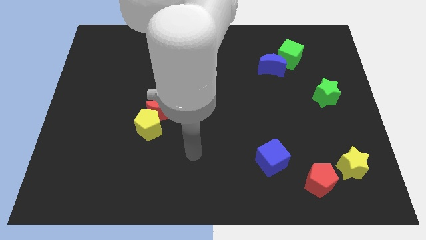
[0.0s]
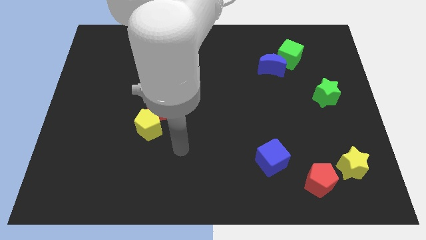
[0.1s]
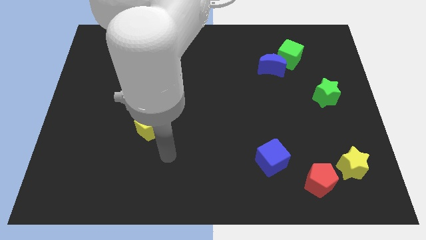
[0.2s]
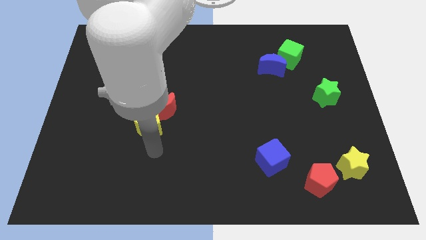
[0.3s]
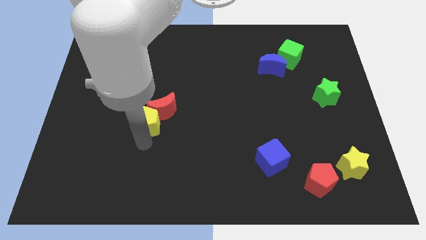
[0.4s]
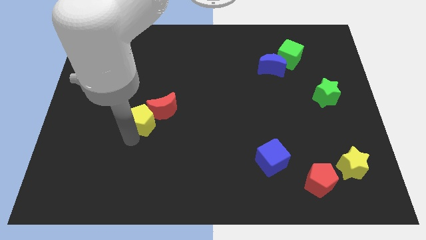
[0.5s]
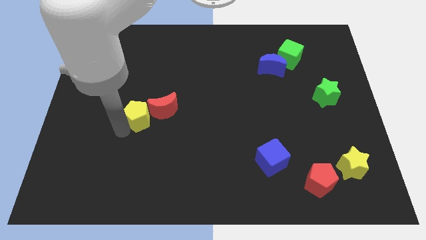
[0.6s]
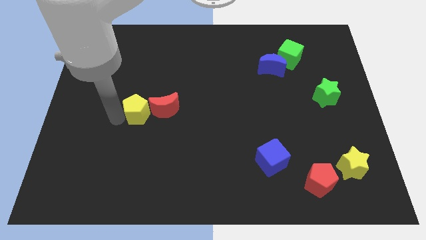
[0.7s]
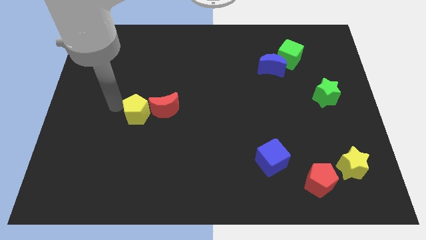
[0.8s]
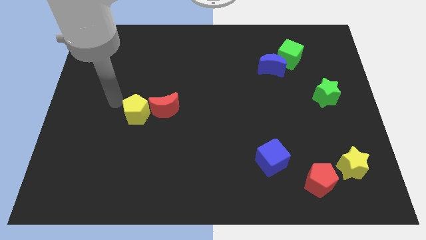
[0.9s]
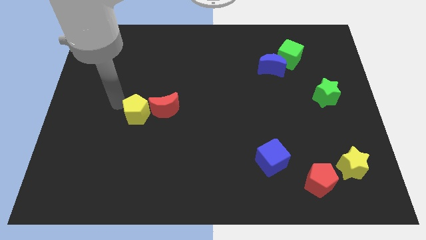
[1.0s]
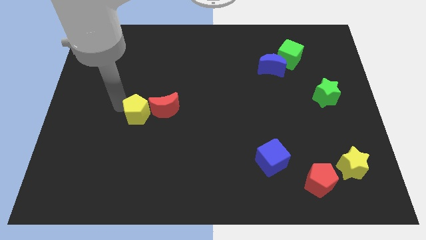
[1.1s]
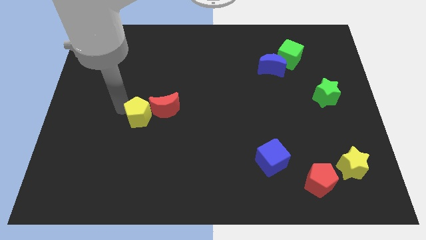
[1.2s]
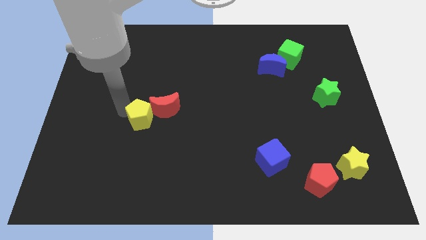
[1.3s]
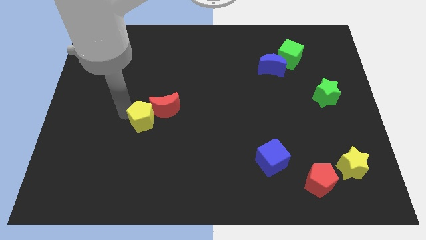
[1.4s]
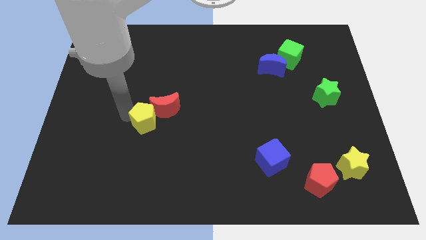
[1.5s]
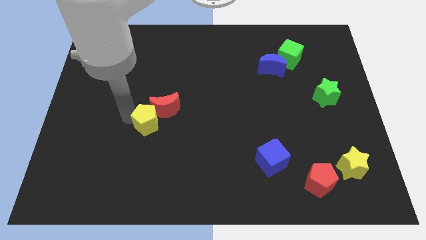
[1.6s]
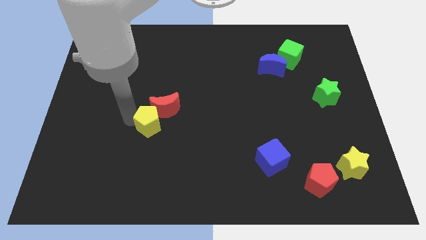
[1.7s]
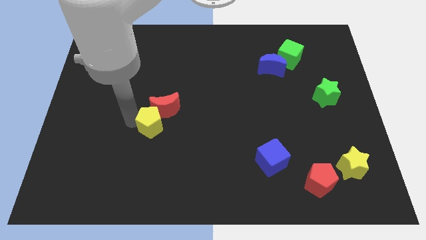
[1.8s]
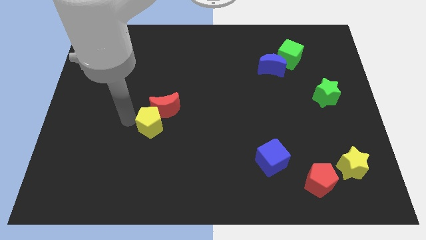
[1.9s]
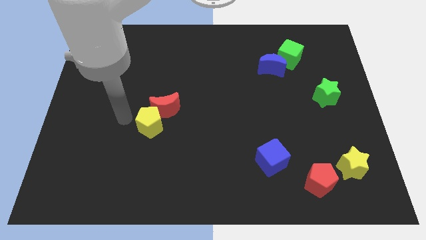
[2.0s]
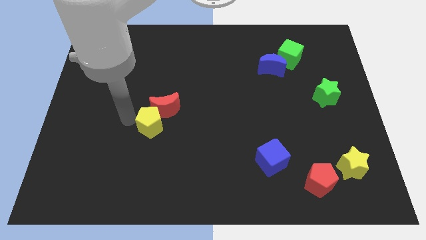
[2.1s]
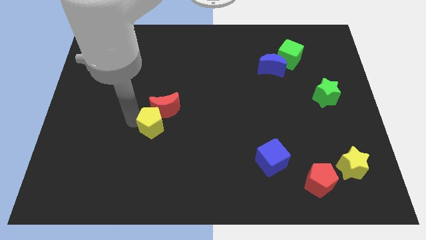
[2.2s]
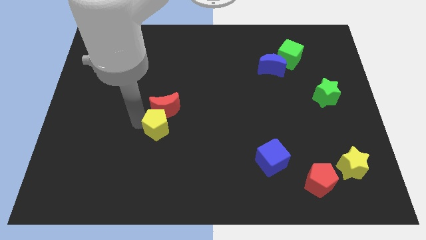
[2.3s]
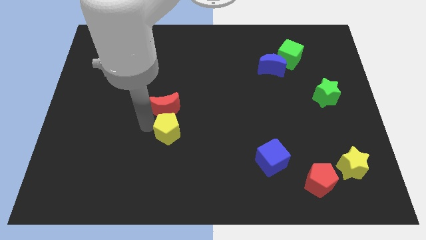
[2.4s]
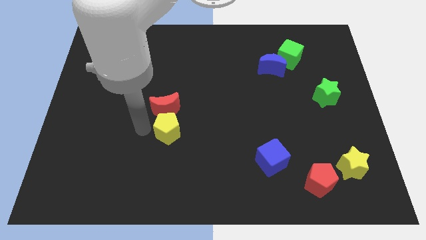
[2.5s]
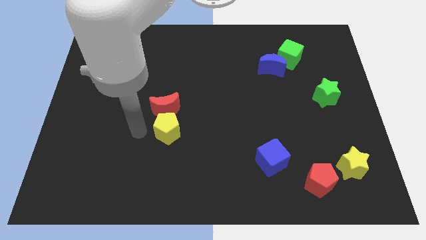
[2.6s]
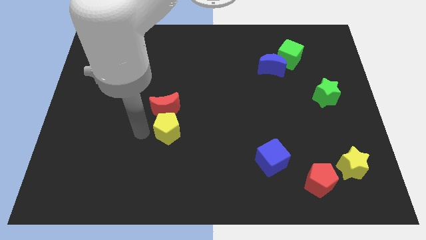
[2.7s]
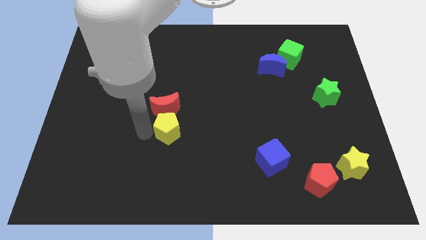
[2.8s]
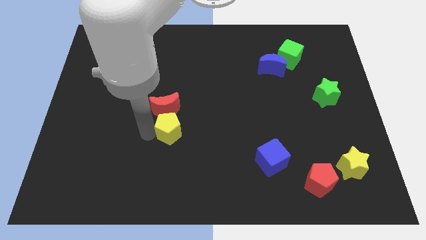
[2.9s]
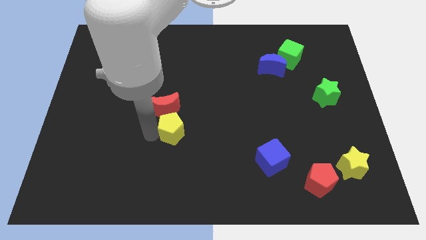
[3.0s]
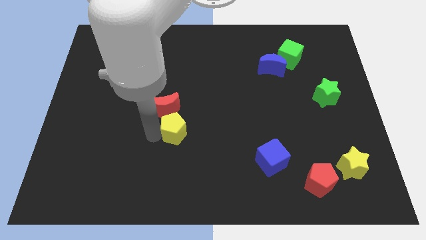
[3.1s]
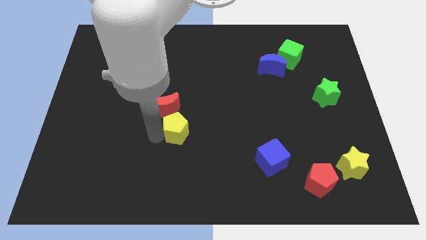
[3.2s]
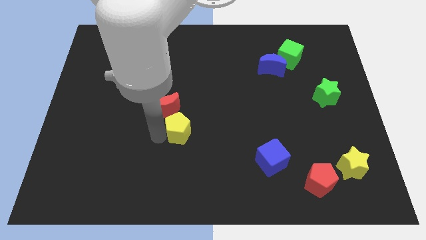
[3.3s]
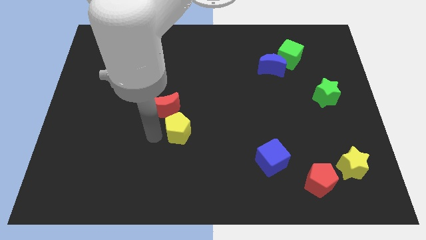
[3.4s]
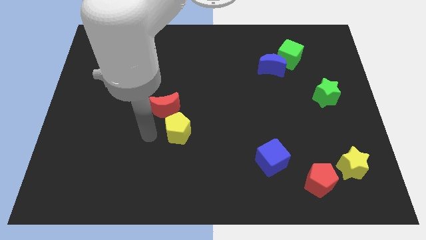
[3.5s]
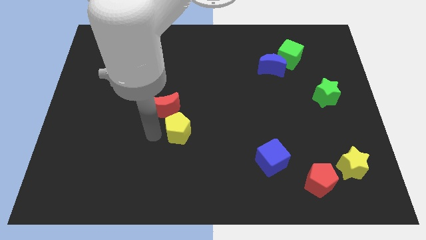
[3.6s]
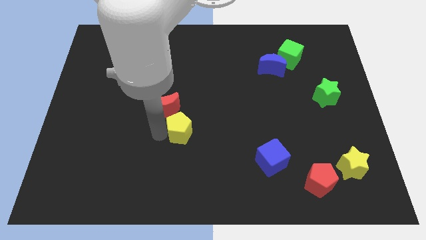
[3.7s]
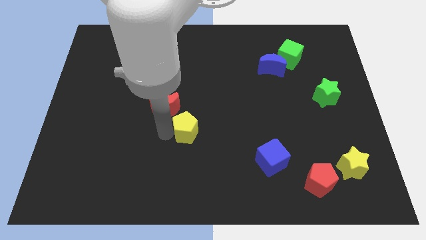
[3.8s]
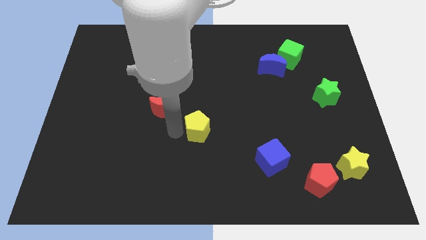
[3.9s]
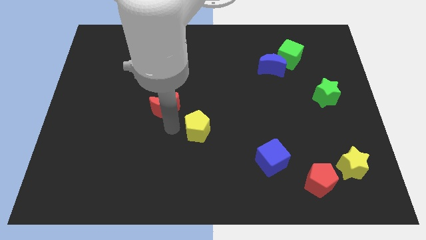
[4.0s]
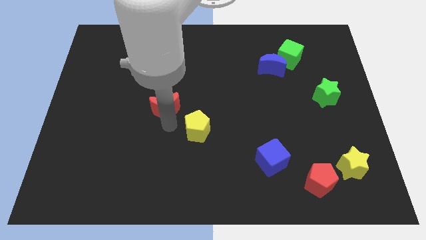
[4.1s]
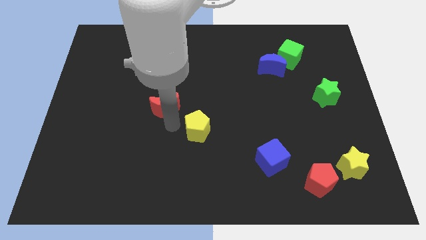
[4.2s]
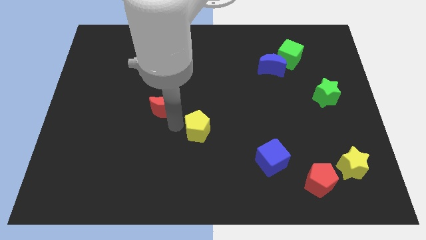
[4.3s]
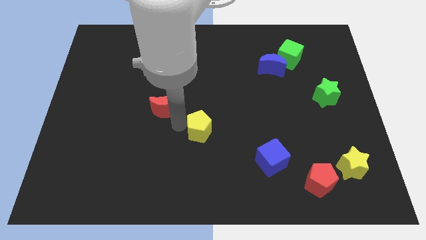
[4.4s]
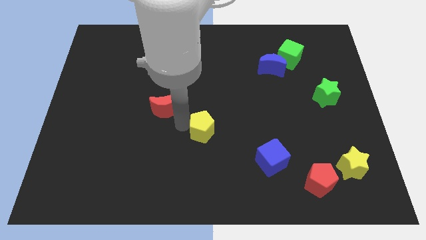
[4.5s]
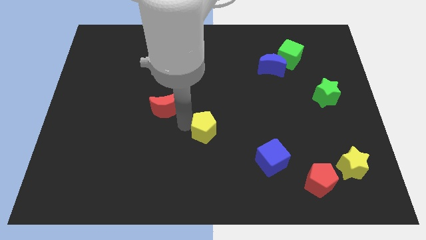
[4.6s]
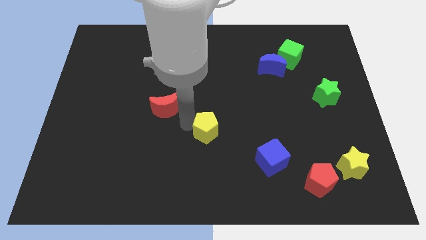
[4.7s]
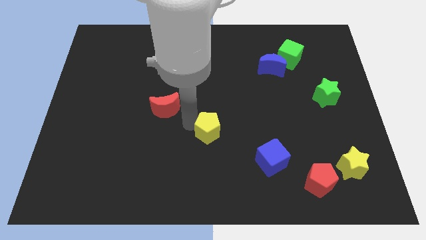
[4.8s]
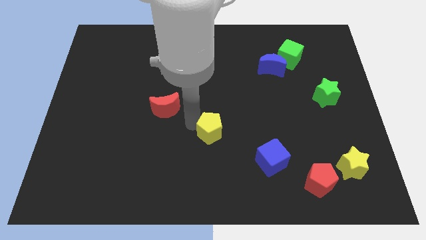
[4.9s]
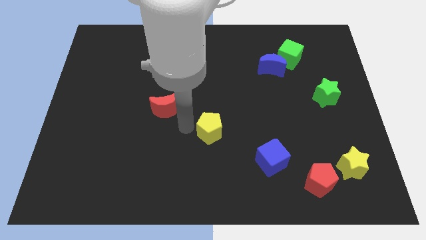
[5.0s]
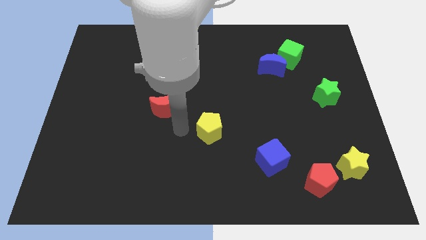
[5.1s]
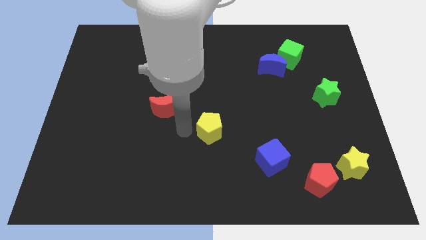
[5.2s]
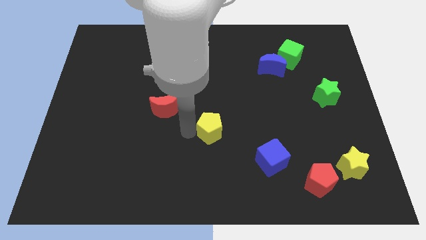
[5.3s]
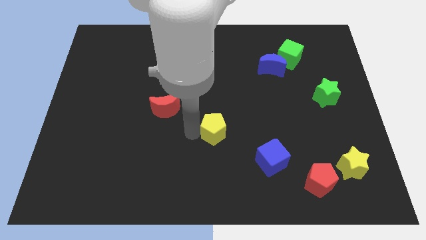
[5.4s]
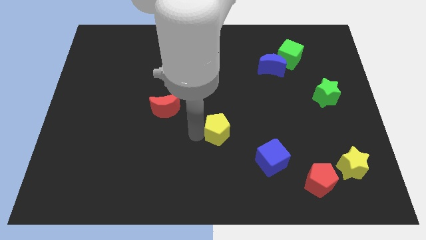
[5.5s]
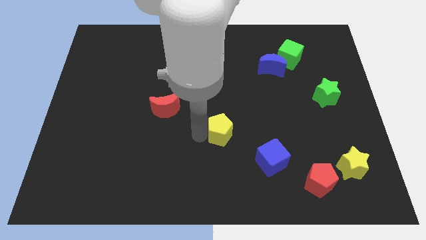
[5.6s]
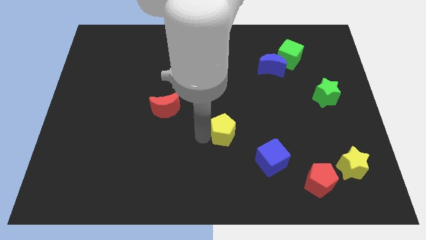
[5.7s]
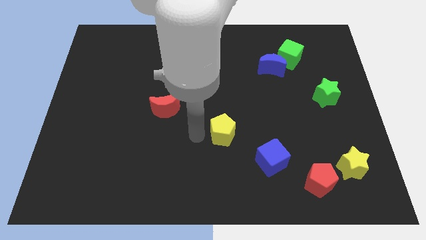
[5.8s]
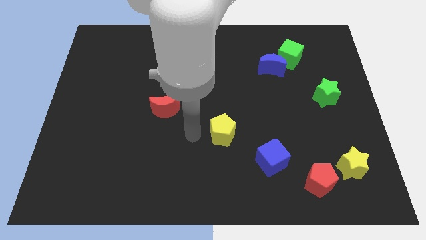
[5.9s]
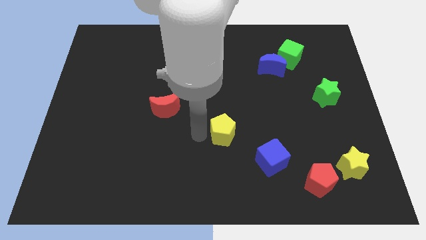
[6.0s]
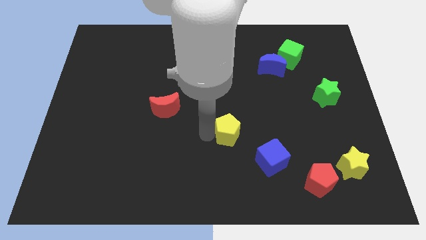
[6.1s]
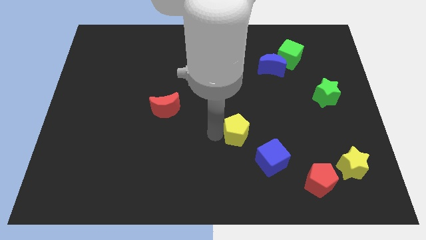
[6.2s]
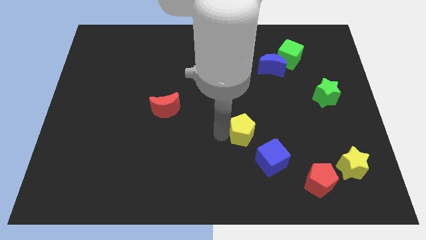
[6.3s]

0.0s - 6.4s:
push the yellow pentagon to the right

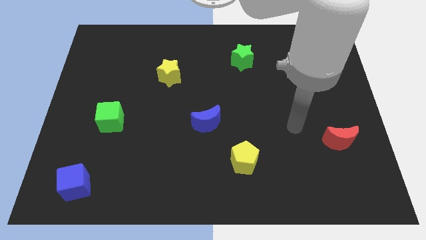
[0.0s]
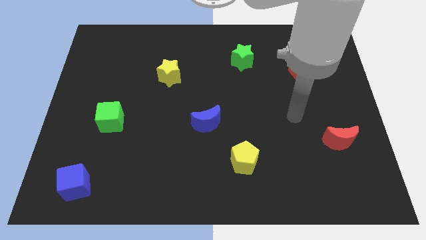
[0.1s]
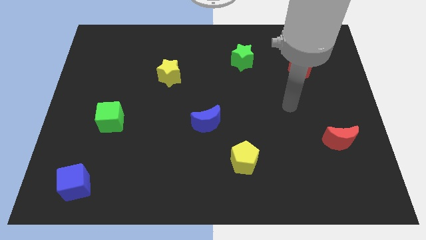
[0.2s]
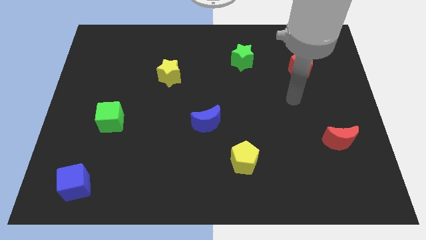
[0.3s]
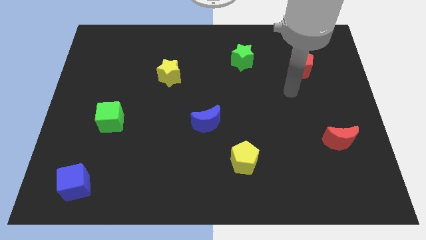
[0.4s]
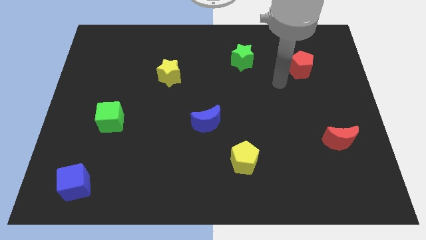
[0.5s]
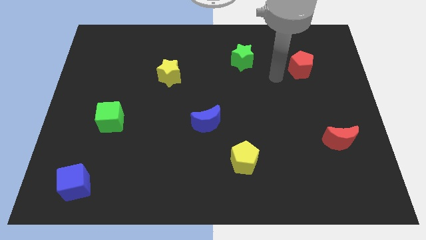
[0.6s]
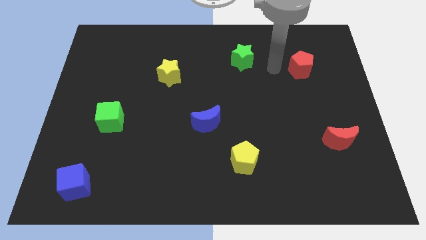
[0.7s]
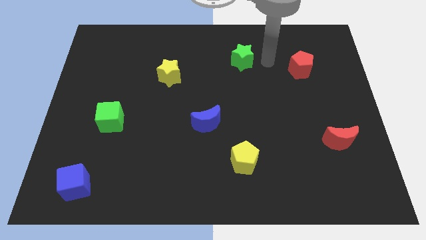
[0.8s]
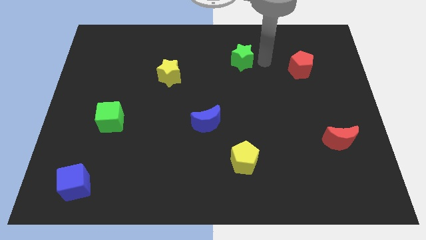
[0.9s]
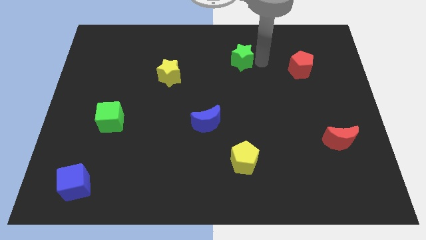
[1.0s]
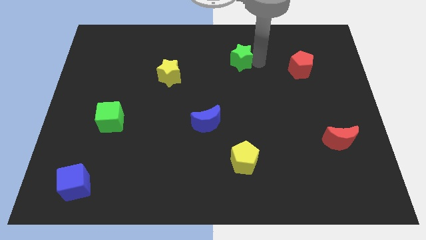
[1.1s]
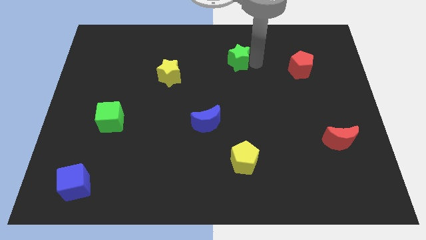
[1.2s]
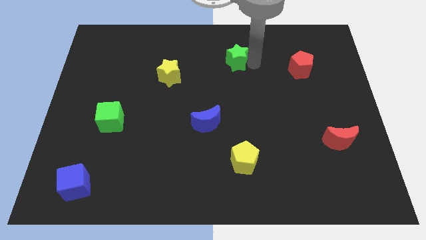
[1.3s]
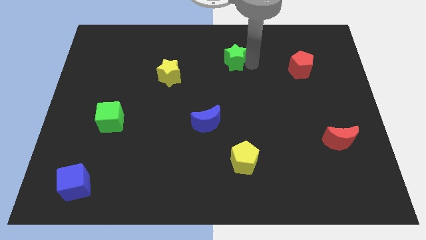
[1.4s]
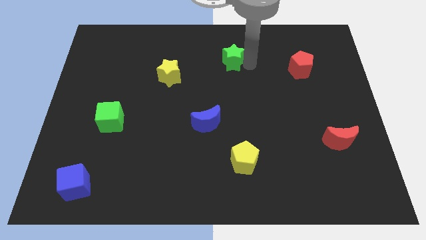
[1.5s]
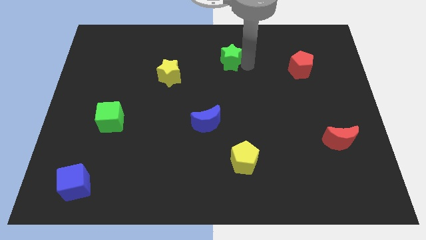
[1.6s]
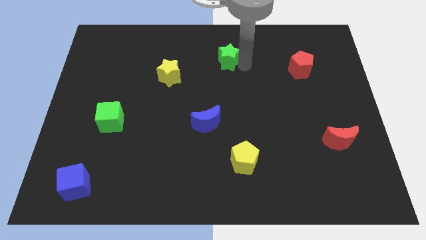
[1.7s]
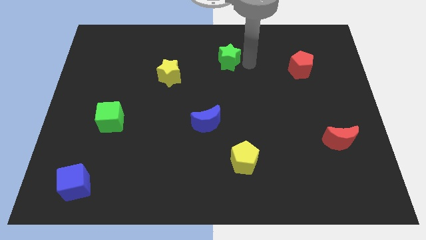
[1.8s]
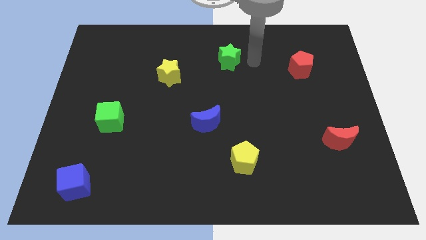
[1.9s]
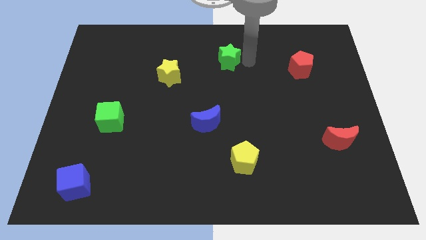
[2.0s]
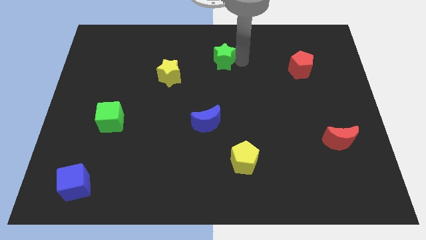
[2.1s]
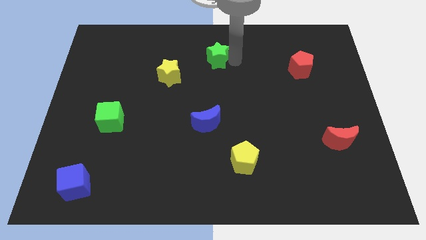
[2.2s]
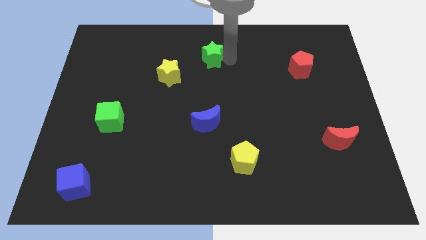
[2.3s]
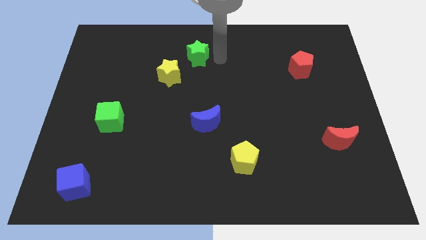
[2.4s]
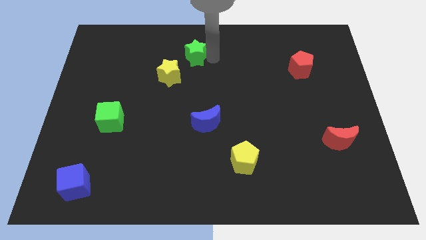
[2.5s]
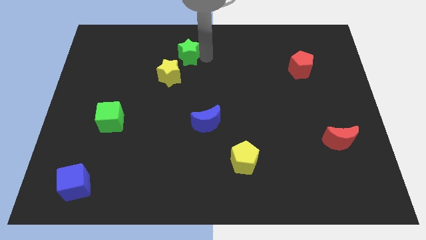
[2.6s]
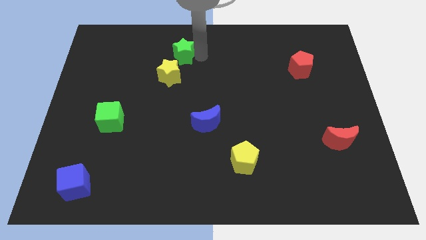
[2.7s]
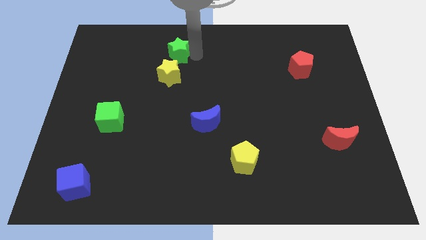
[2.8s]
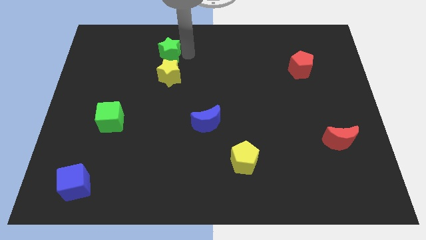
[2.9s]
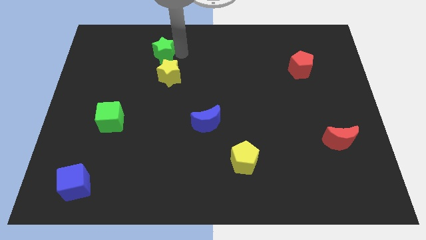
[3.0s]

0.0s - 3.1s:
push the green star left
